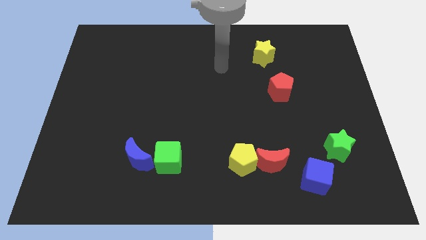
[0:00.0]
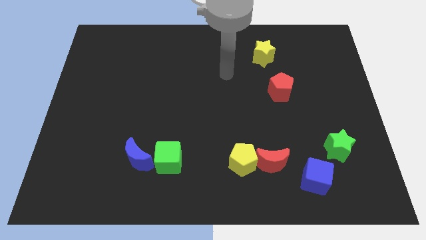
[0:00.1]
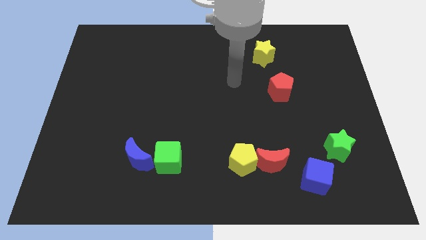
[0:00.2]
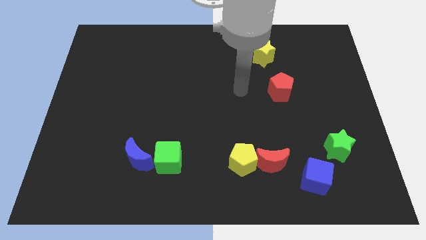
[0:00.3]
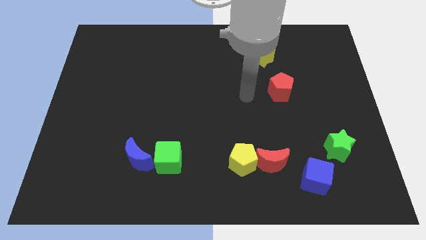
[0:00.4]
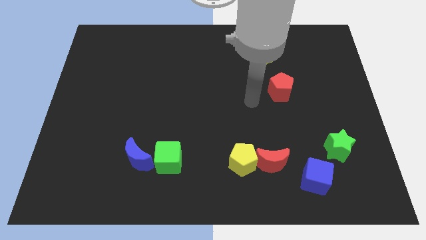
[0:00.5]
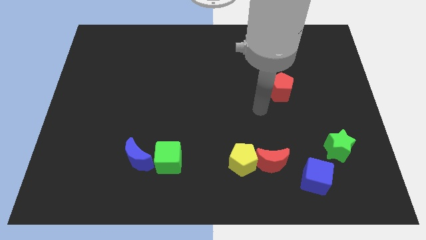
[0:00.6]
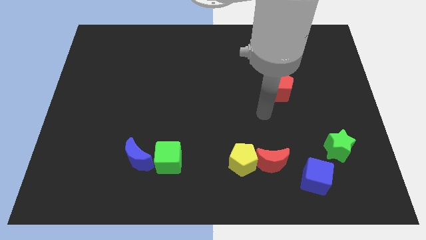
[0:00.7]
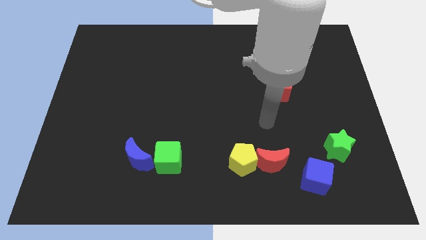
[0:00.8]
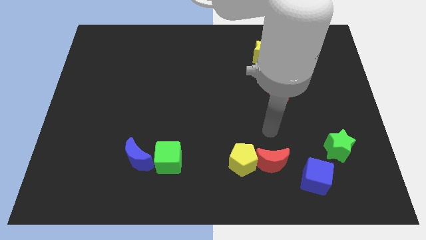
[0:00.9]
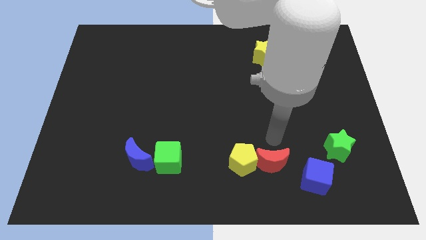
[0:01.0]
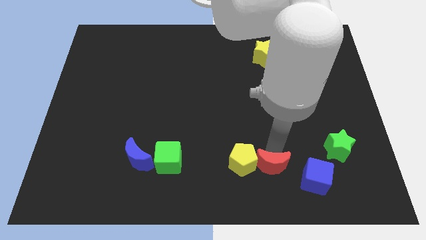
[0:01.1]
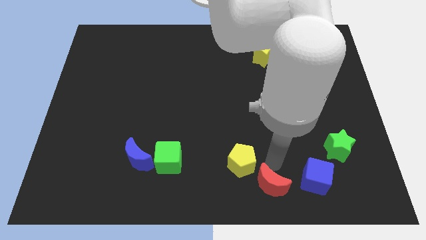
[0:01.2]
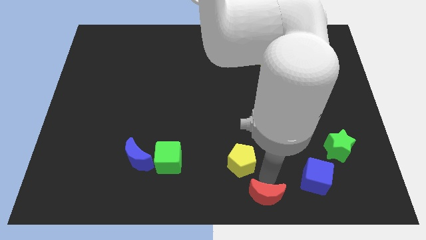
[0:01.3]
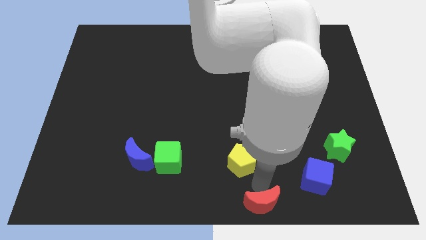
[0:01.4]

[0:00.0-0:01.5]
pull the yellow pentagon apart from the red moon

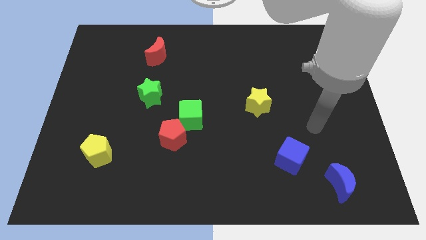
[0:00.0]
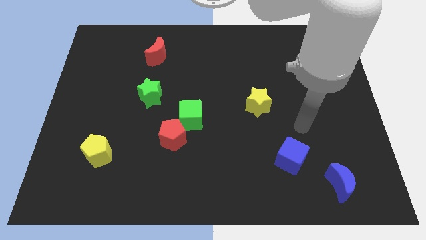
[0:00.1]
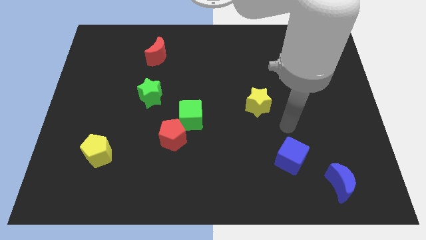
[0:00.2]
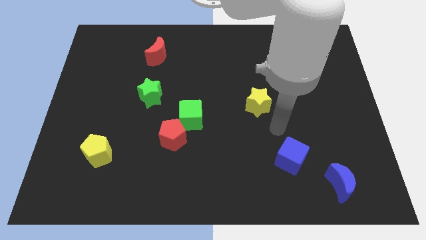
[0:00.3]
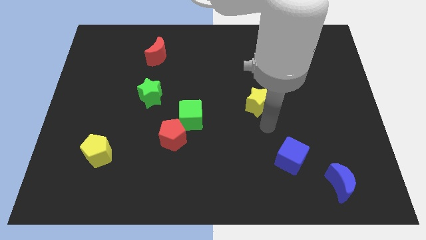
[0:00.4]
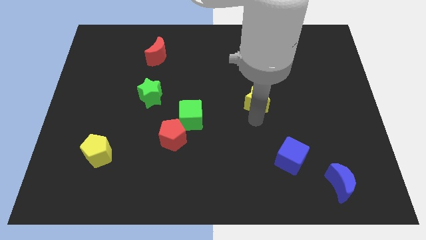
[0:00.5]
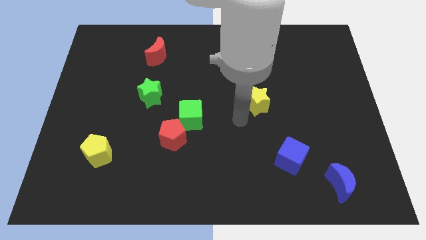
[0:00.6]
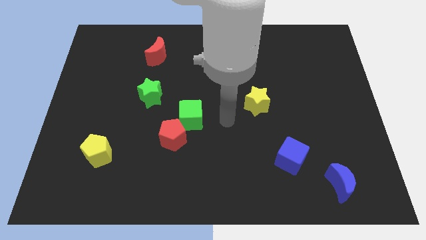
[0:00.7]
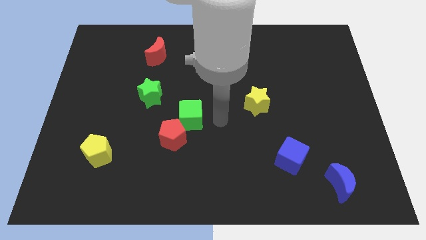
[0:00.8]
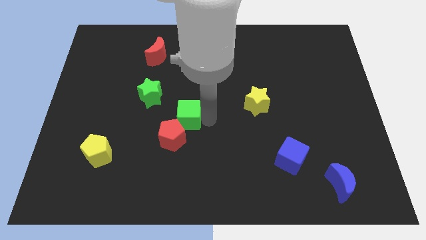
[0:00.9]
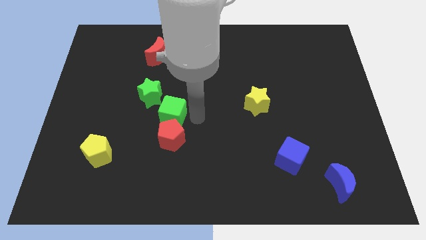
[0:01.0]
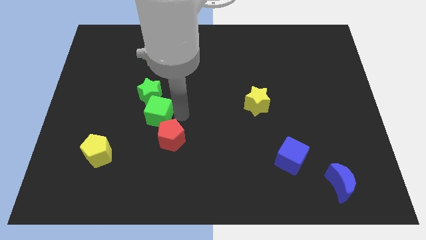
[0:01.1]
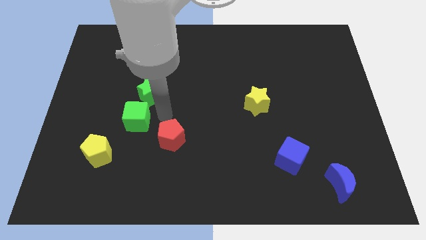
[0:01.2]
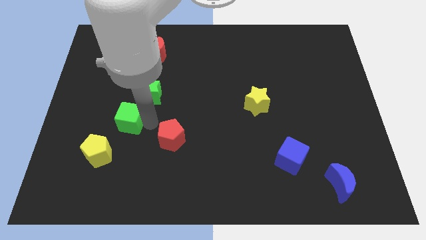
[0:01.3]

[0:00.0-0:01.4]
pull the red pentagon apart from the green cube

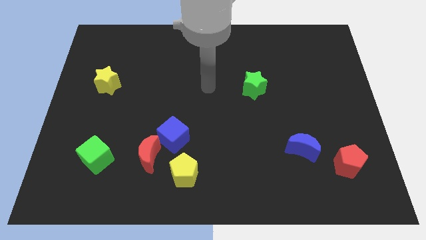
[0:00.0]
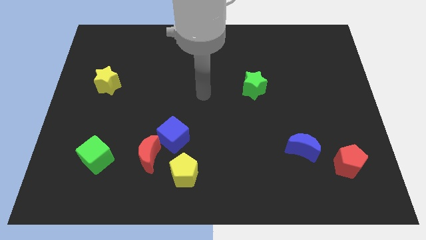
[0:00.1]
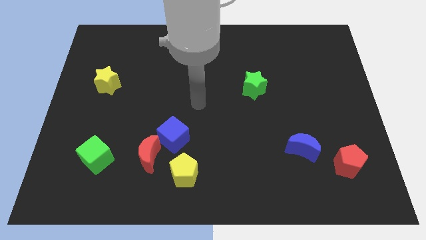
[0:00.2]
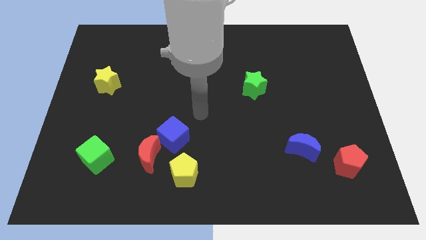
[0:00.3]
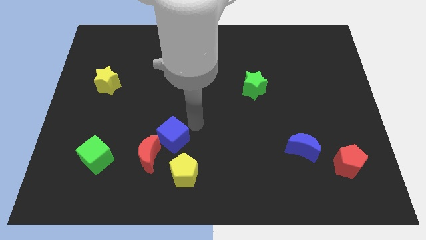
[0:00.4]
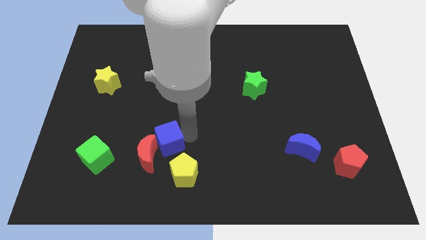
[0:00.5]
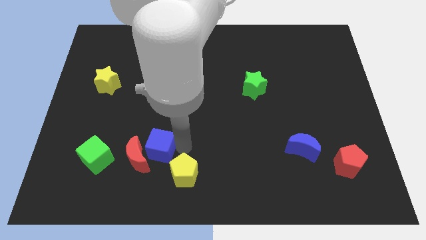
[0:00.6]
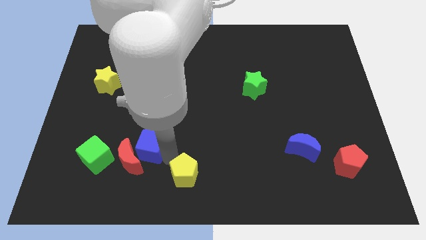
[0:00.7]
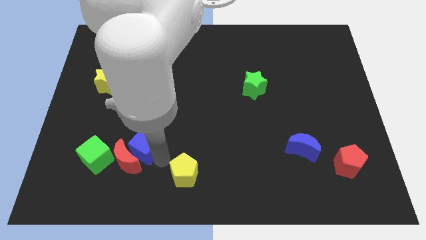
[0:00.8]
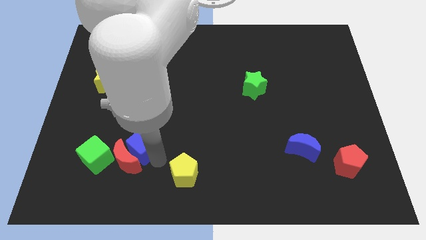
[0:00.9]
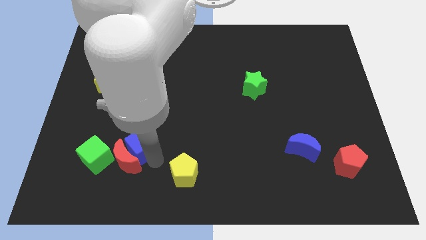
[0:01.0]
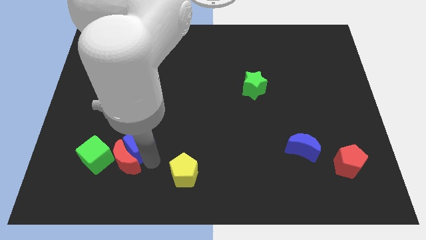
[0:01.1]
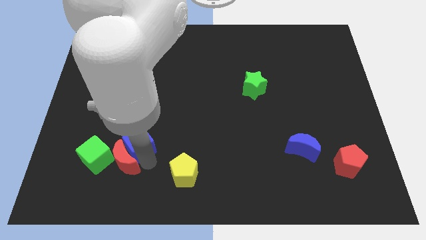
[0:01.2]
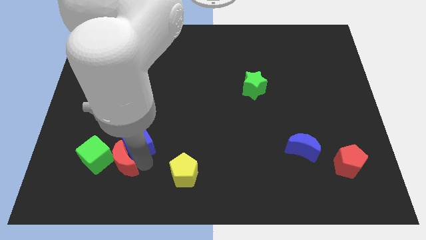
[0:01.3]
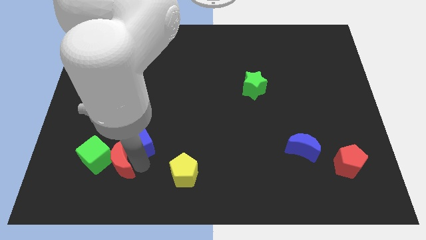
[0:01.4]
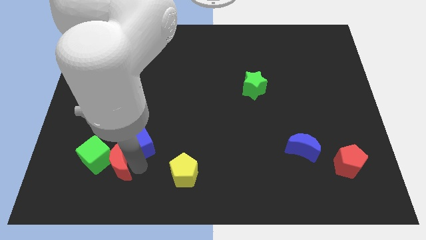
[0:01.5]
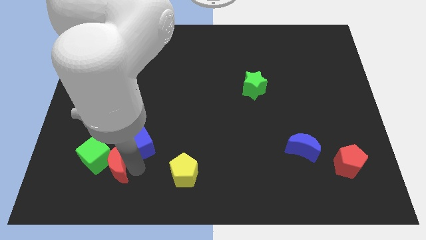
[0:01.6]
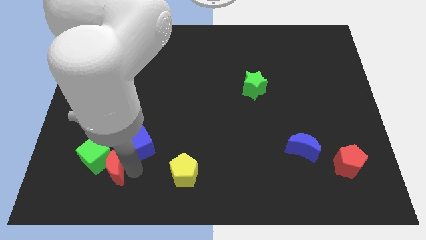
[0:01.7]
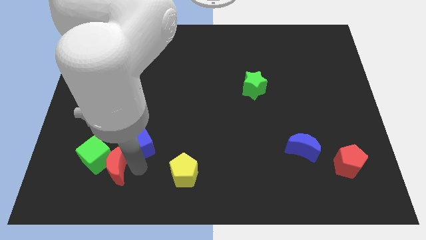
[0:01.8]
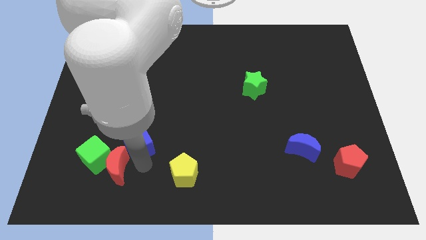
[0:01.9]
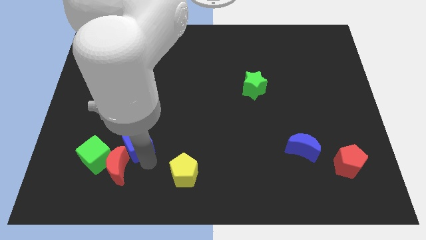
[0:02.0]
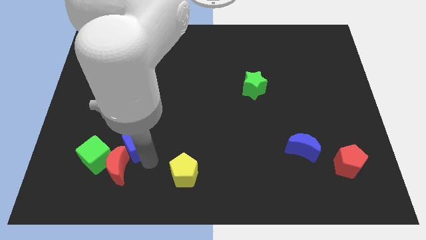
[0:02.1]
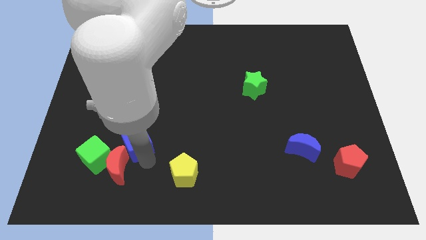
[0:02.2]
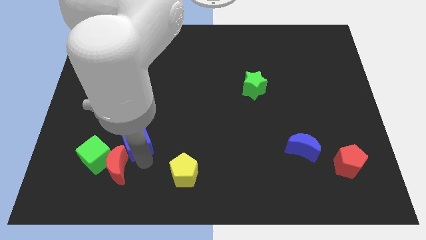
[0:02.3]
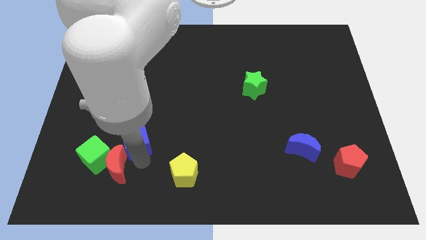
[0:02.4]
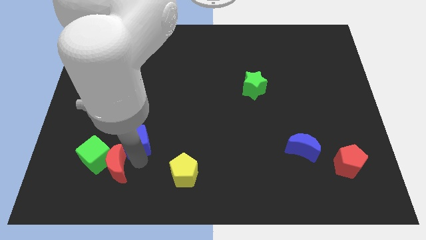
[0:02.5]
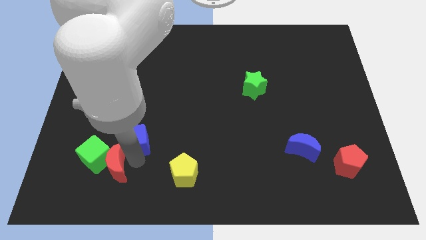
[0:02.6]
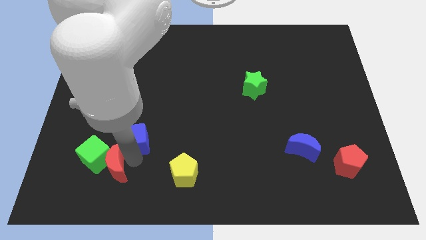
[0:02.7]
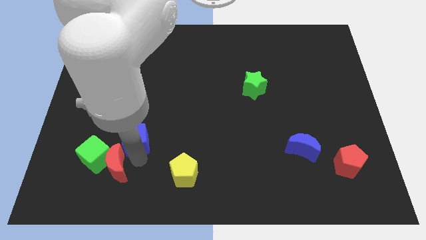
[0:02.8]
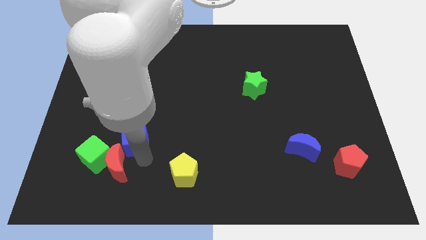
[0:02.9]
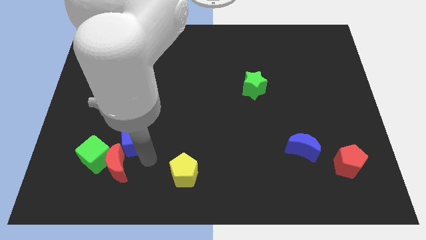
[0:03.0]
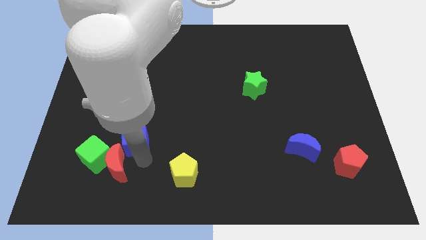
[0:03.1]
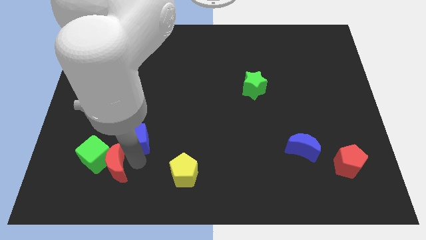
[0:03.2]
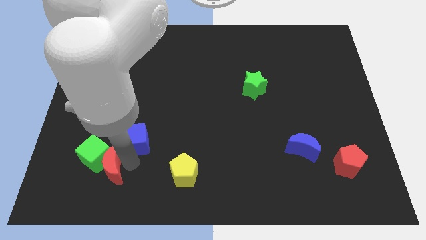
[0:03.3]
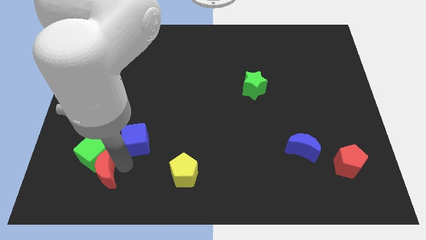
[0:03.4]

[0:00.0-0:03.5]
pull the red moon apart from the blue cube and yellow pentagon

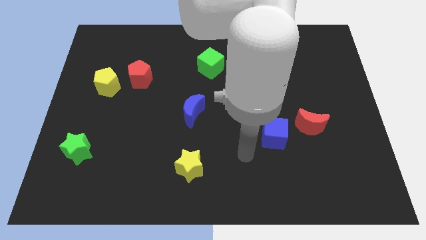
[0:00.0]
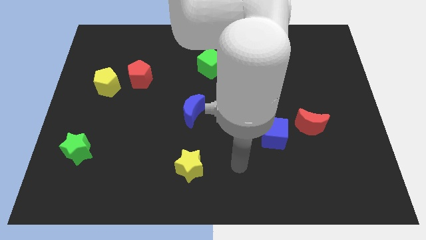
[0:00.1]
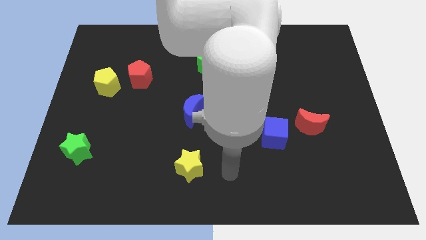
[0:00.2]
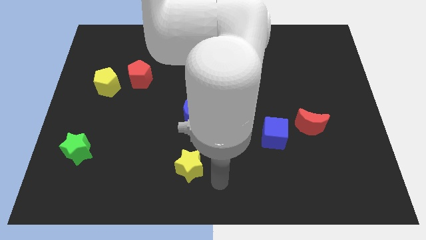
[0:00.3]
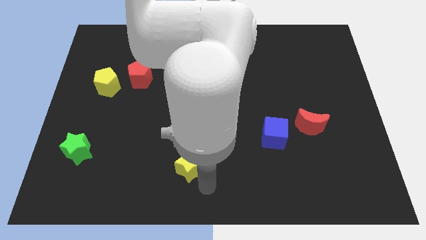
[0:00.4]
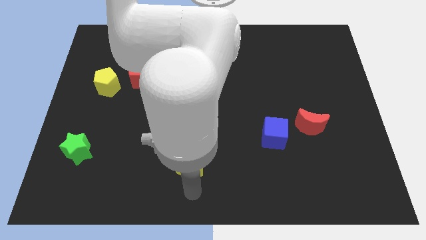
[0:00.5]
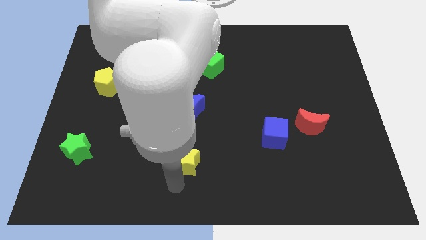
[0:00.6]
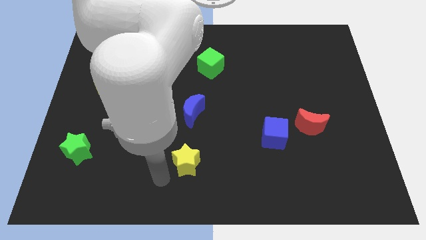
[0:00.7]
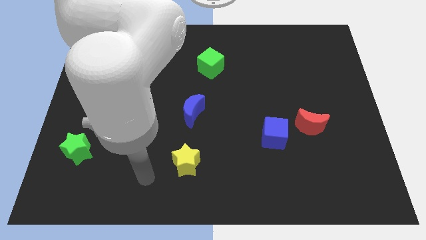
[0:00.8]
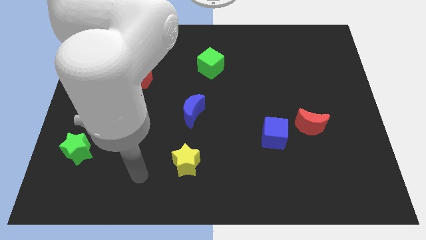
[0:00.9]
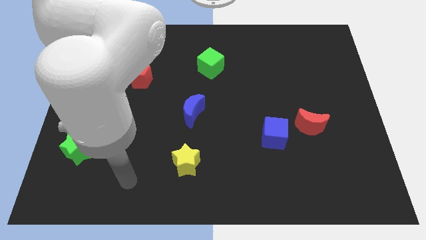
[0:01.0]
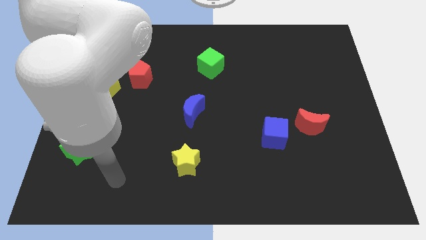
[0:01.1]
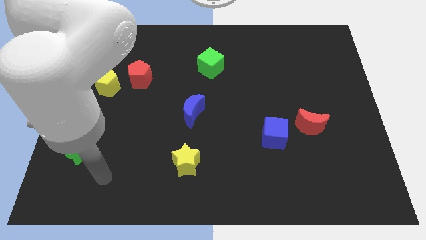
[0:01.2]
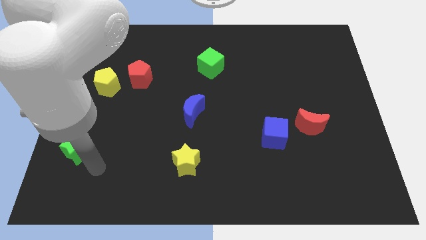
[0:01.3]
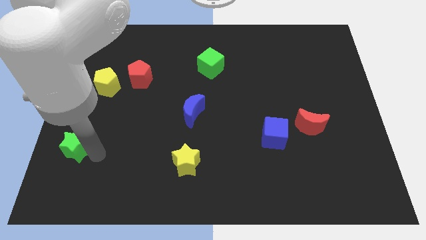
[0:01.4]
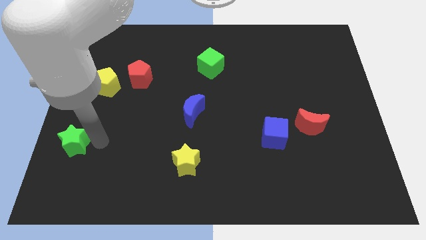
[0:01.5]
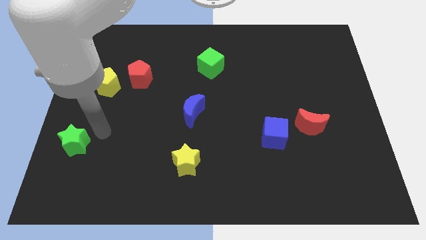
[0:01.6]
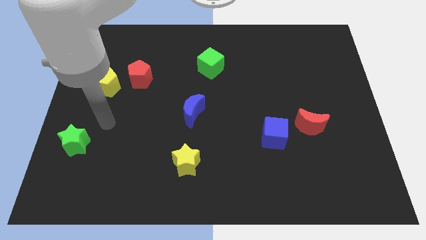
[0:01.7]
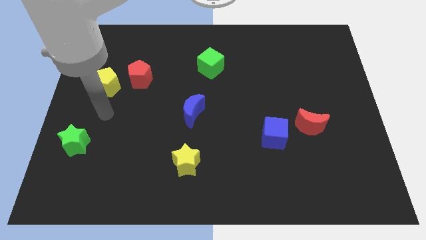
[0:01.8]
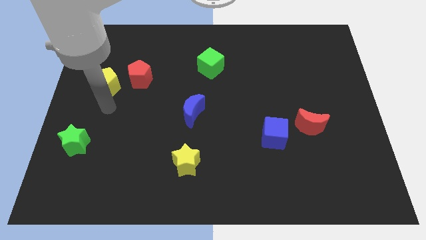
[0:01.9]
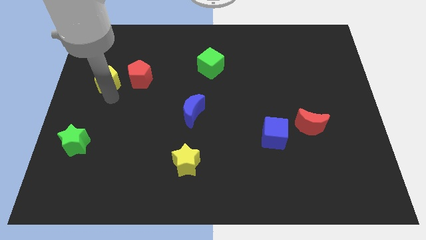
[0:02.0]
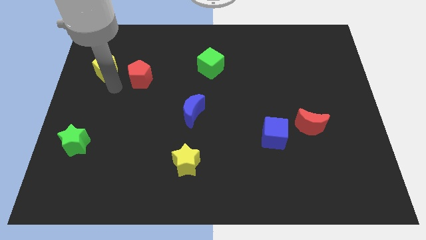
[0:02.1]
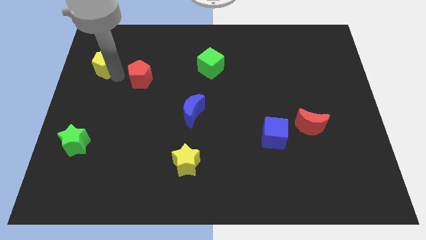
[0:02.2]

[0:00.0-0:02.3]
move the red pentagon away from the yellow pentagon

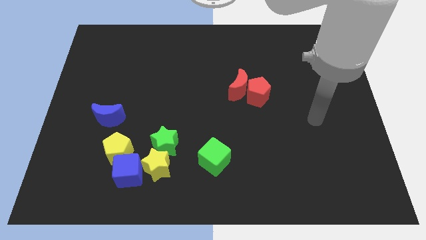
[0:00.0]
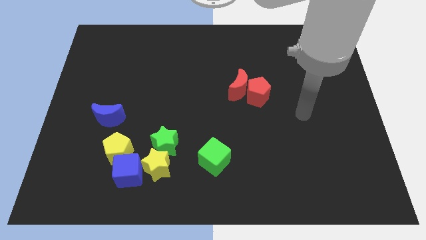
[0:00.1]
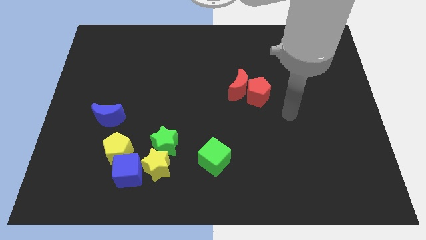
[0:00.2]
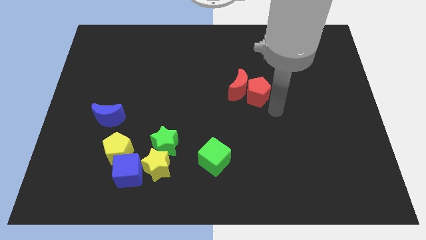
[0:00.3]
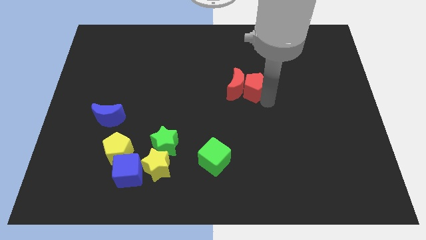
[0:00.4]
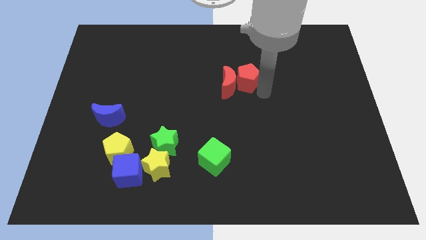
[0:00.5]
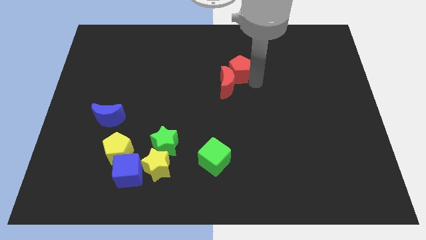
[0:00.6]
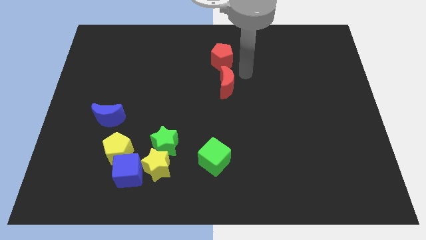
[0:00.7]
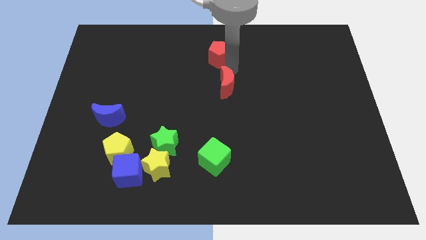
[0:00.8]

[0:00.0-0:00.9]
pull the red moon apart from the red pentagon
